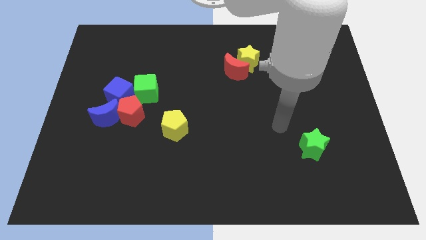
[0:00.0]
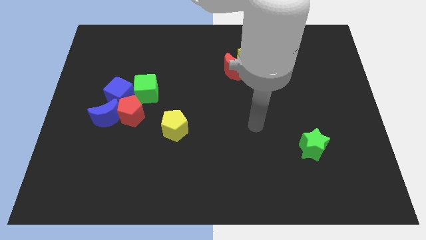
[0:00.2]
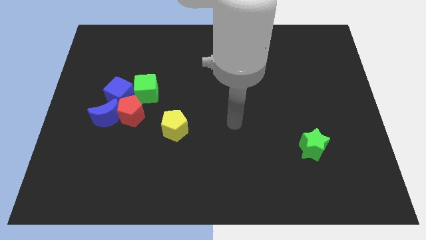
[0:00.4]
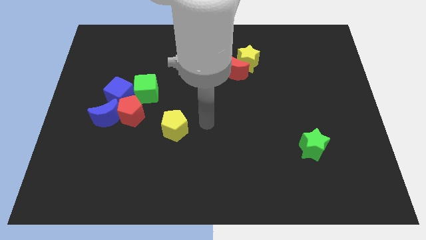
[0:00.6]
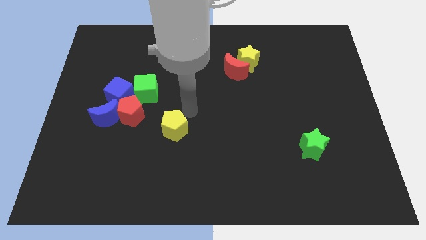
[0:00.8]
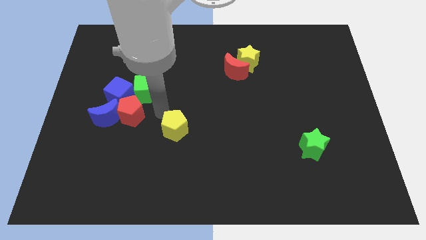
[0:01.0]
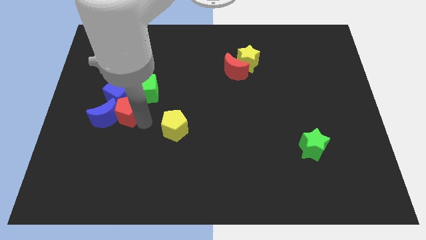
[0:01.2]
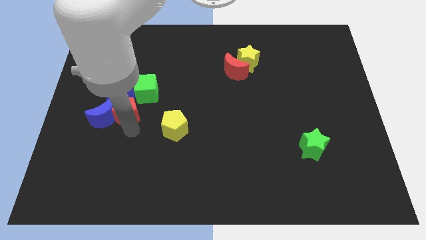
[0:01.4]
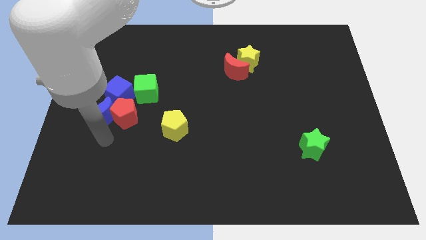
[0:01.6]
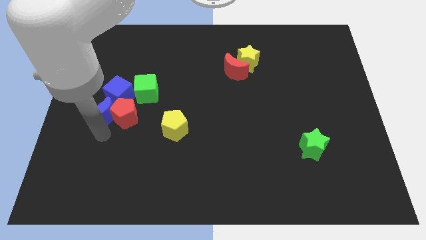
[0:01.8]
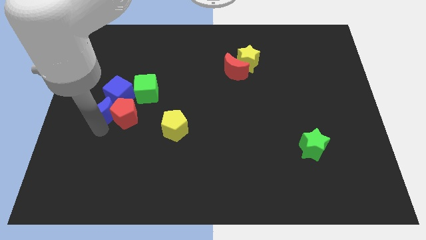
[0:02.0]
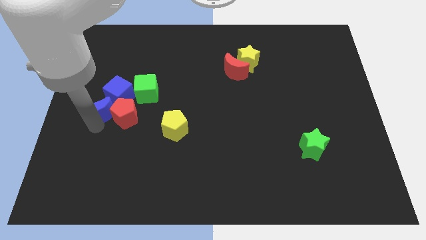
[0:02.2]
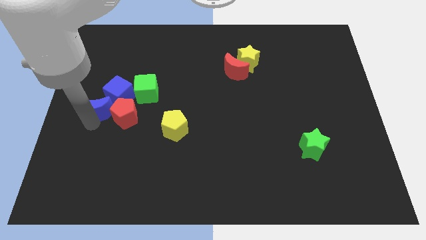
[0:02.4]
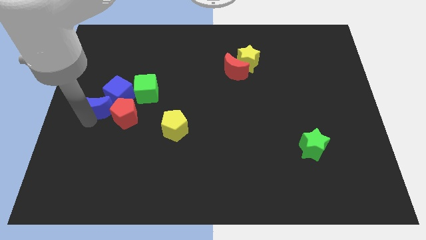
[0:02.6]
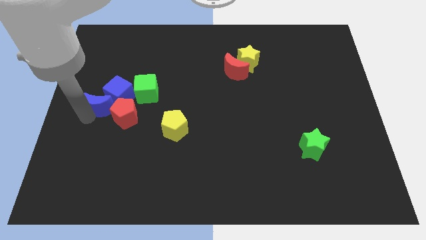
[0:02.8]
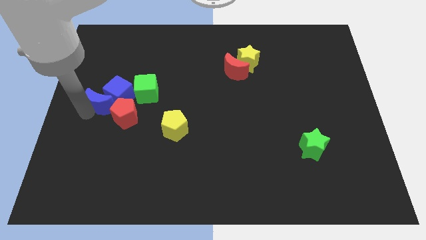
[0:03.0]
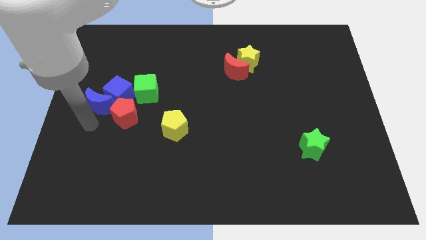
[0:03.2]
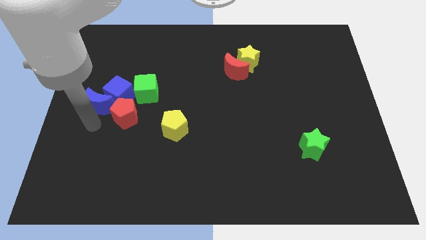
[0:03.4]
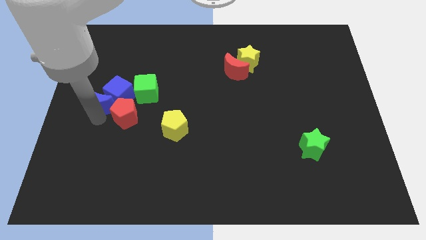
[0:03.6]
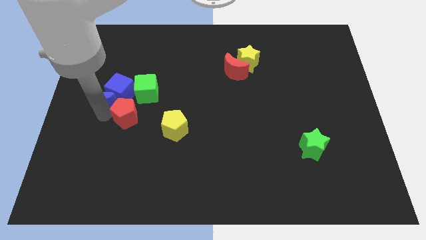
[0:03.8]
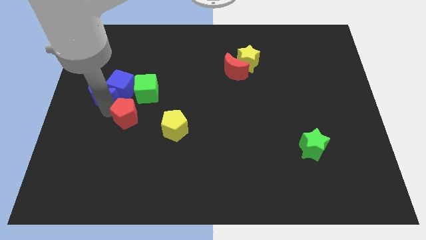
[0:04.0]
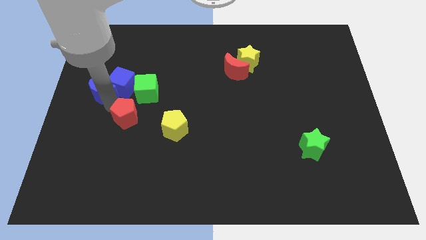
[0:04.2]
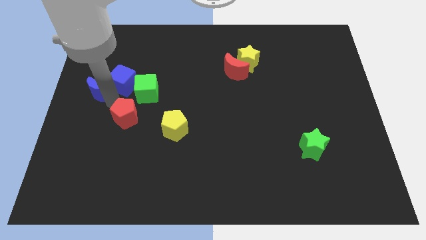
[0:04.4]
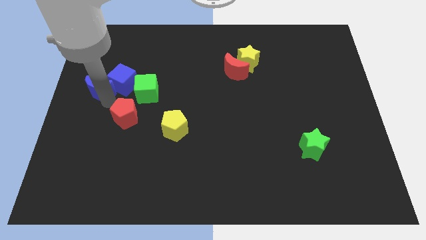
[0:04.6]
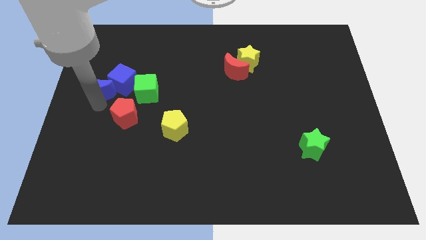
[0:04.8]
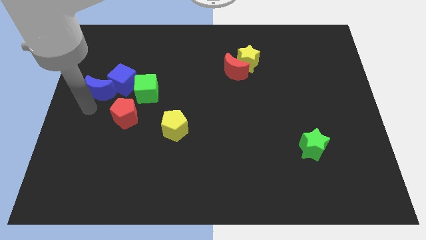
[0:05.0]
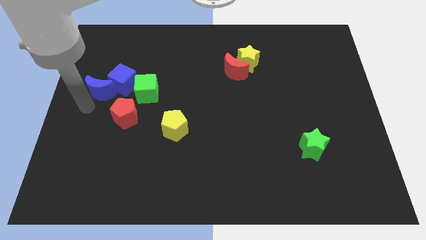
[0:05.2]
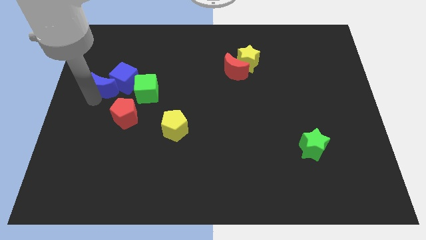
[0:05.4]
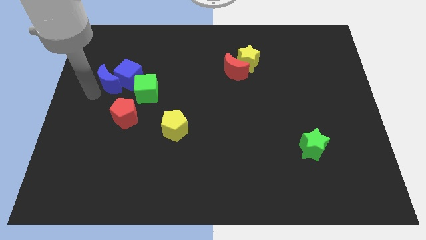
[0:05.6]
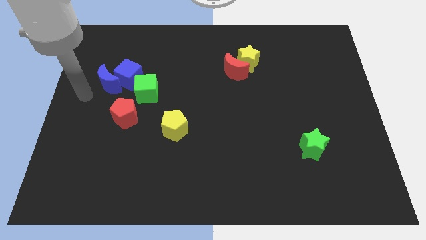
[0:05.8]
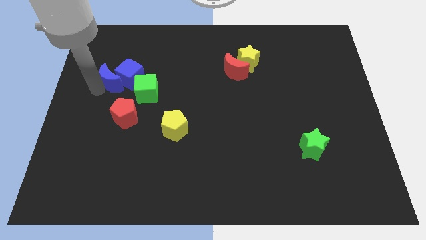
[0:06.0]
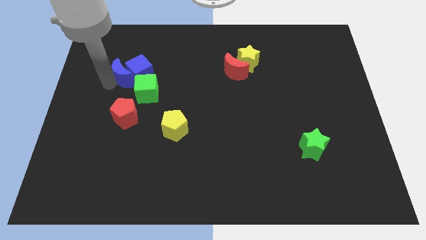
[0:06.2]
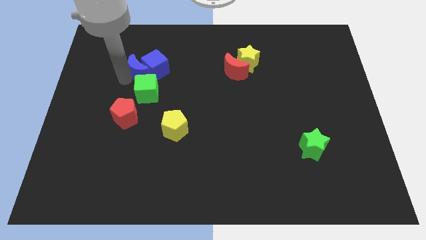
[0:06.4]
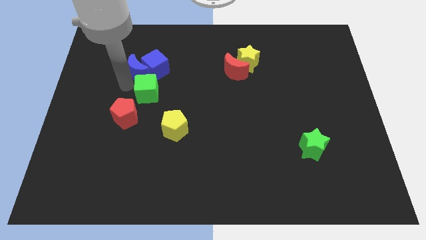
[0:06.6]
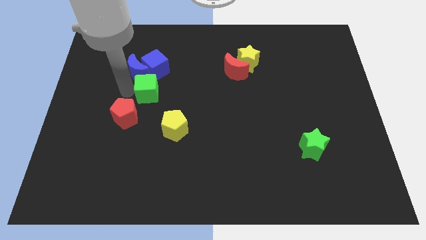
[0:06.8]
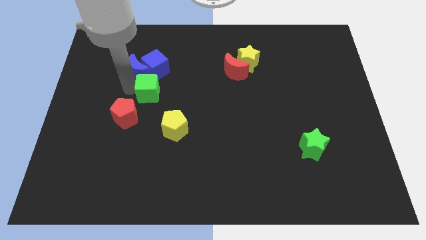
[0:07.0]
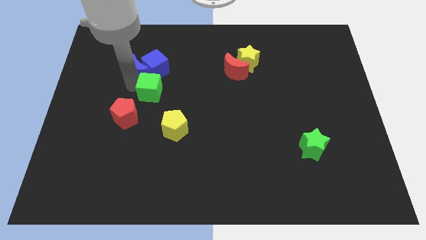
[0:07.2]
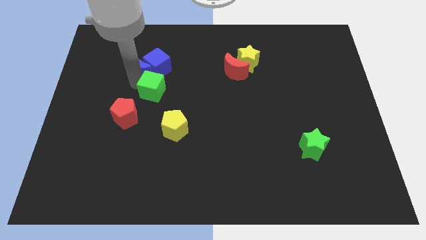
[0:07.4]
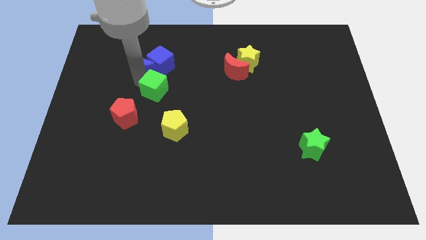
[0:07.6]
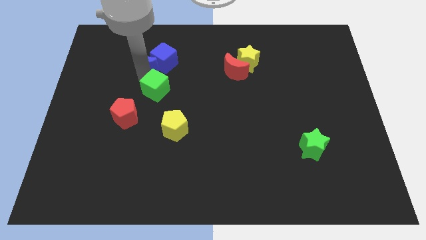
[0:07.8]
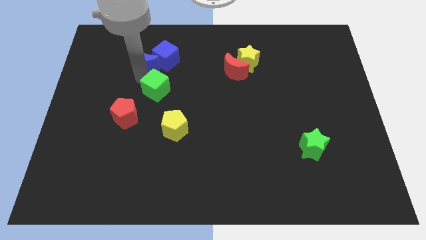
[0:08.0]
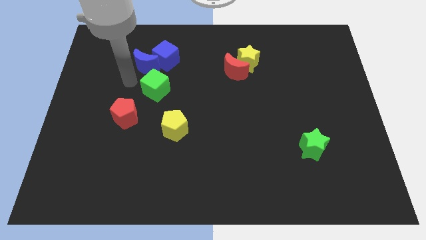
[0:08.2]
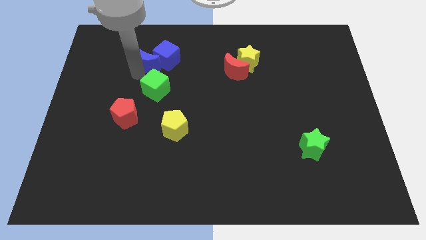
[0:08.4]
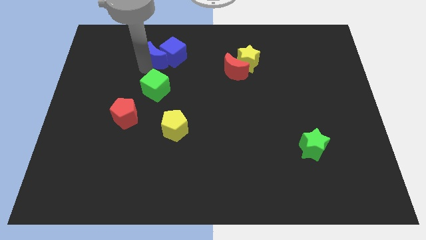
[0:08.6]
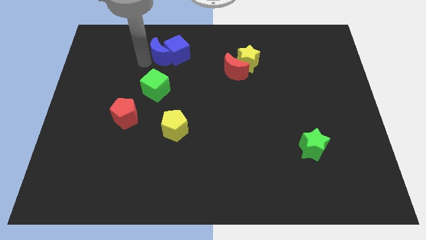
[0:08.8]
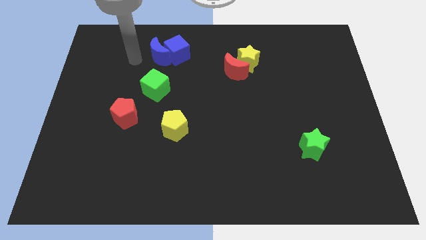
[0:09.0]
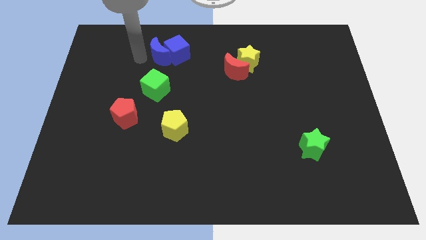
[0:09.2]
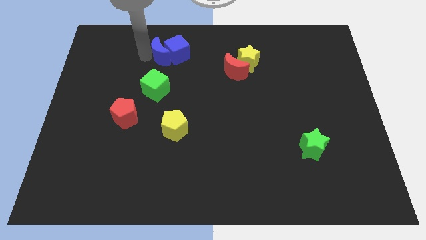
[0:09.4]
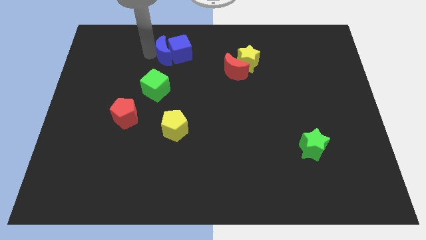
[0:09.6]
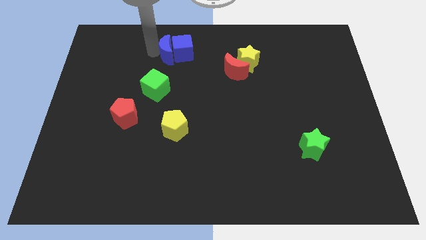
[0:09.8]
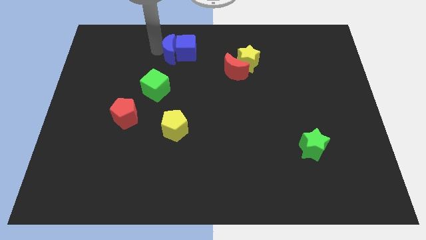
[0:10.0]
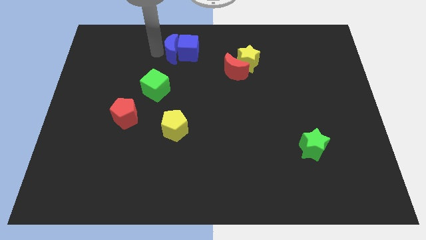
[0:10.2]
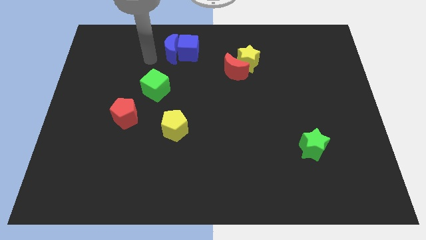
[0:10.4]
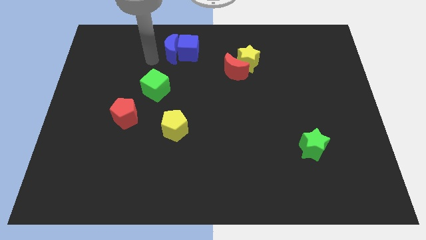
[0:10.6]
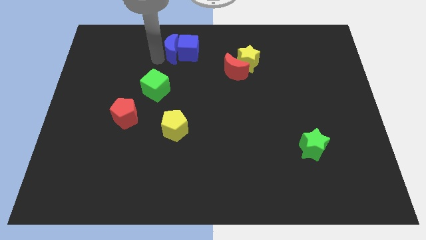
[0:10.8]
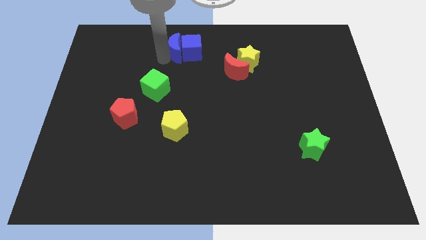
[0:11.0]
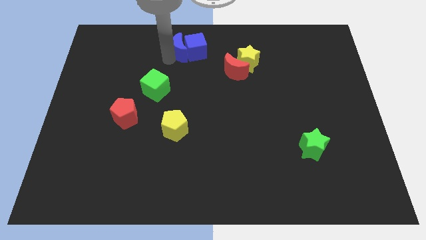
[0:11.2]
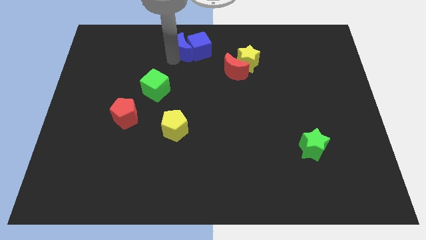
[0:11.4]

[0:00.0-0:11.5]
push the blue moon to the top side

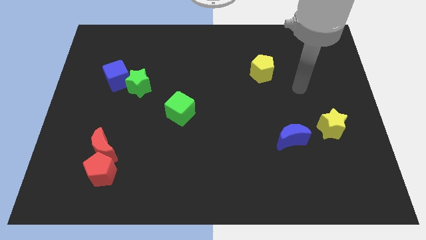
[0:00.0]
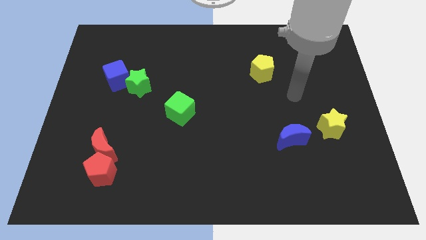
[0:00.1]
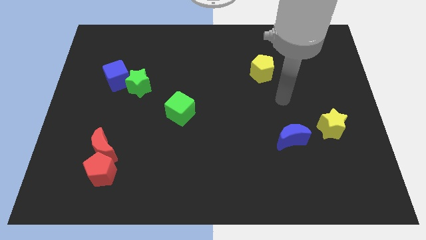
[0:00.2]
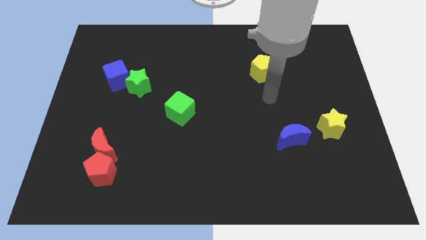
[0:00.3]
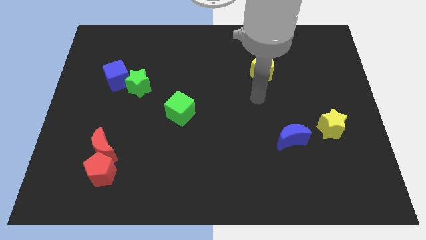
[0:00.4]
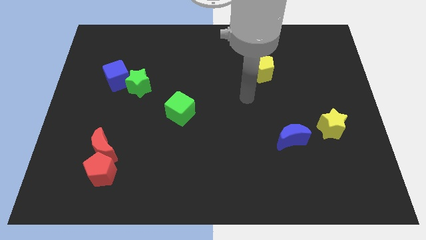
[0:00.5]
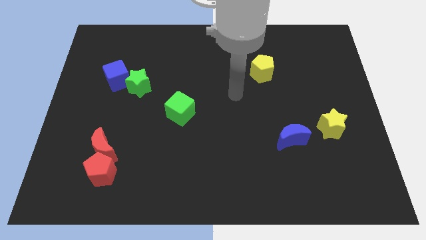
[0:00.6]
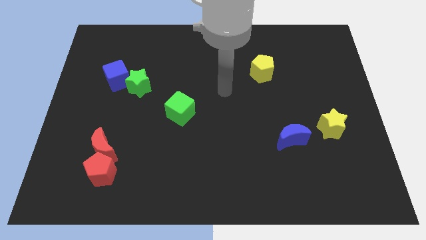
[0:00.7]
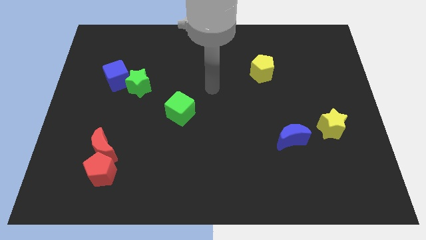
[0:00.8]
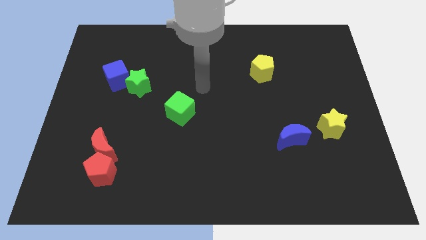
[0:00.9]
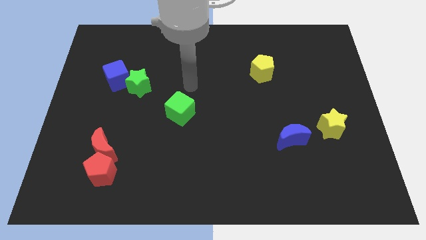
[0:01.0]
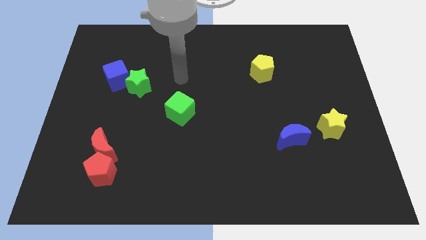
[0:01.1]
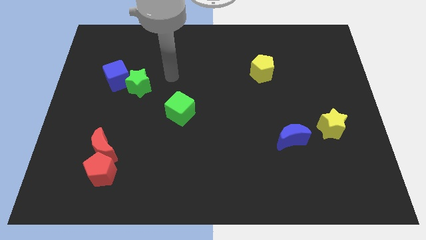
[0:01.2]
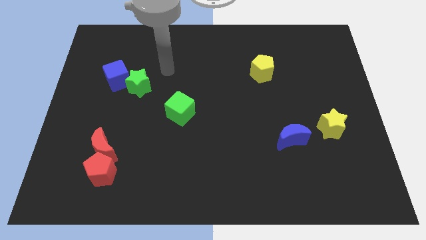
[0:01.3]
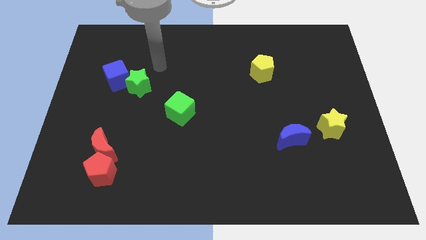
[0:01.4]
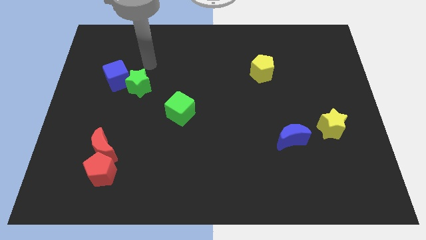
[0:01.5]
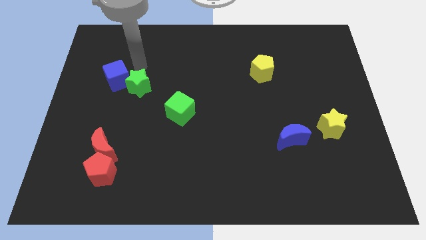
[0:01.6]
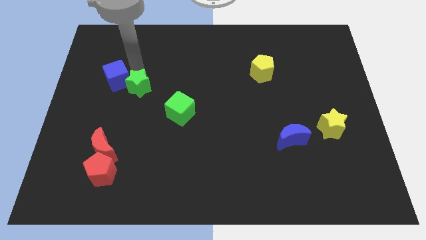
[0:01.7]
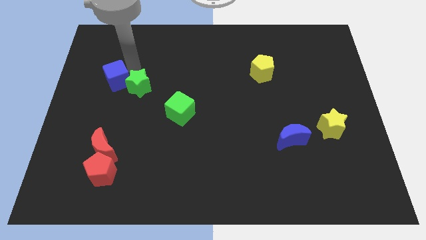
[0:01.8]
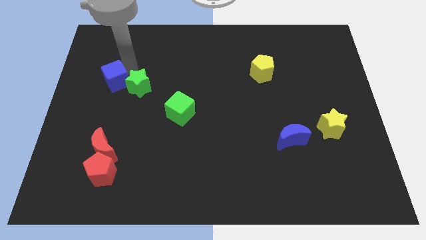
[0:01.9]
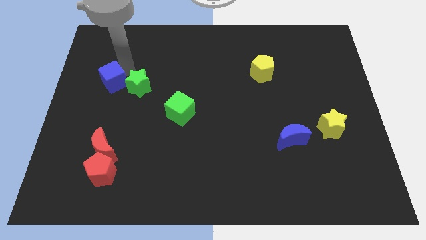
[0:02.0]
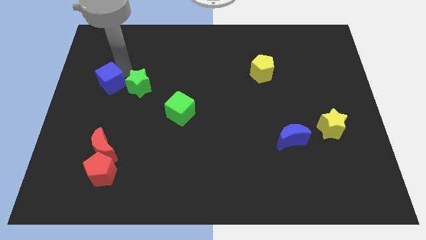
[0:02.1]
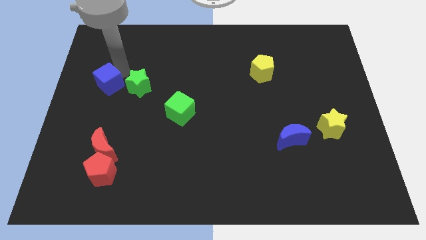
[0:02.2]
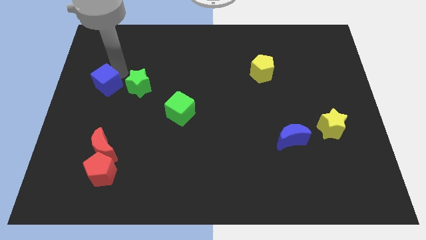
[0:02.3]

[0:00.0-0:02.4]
slide the blue cube to the left side
